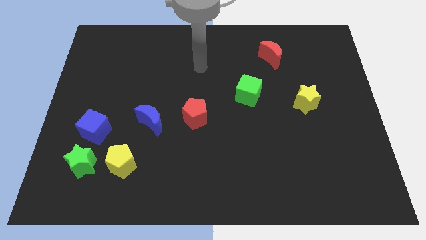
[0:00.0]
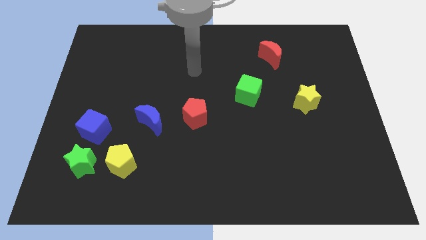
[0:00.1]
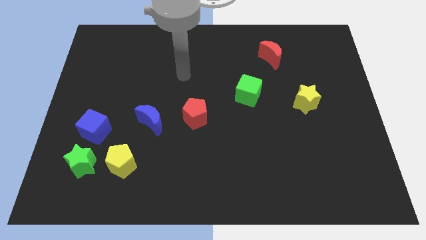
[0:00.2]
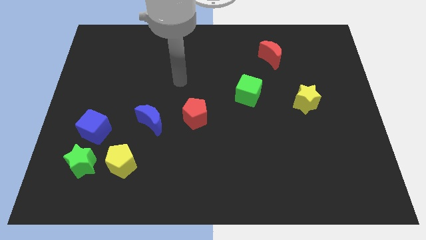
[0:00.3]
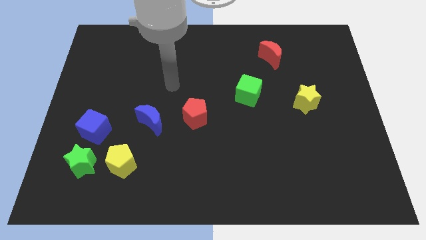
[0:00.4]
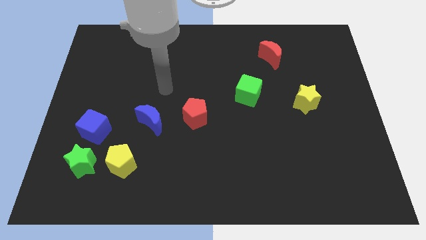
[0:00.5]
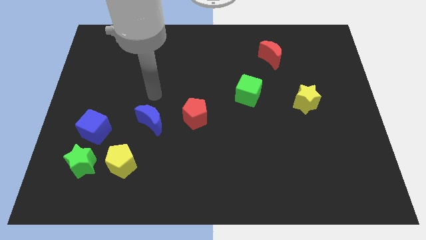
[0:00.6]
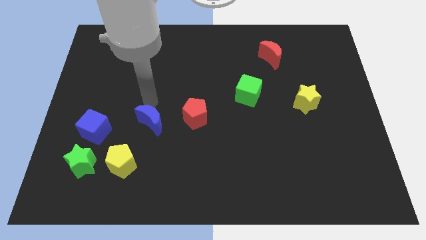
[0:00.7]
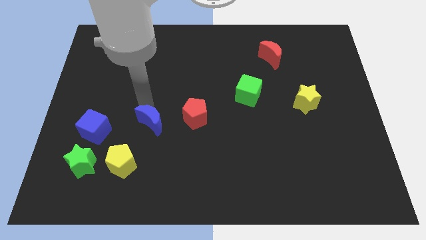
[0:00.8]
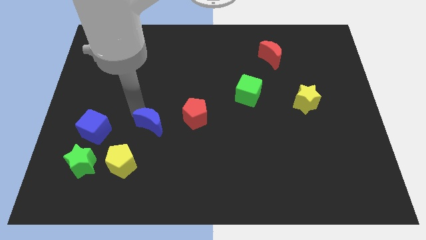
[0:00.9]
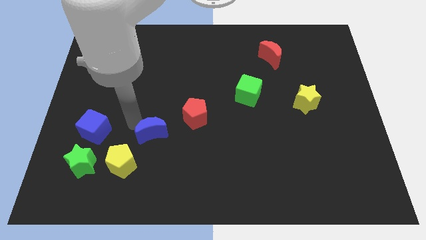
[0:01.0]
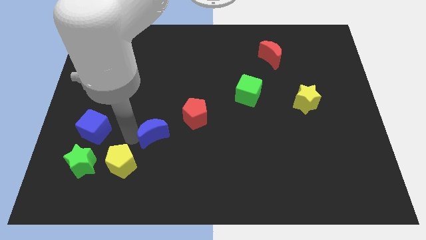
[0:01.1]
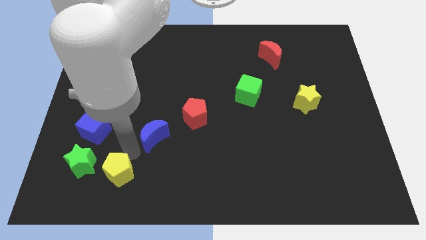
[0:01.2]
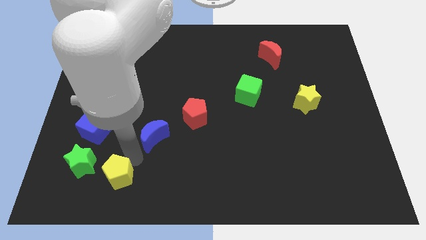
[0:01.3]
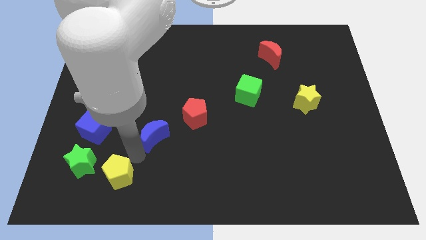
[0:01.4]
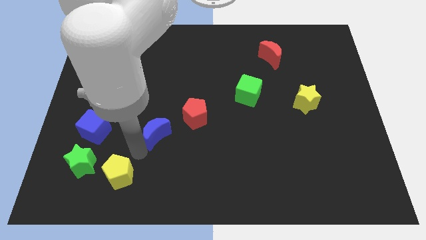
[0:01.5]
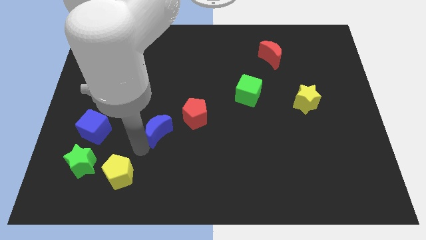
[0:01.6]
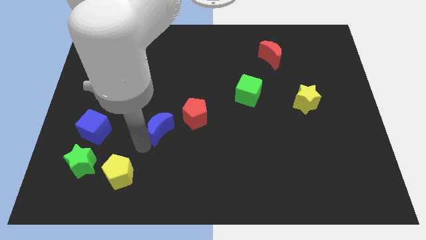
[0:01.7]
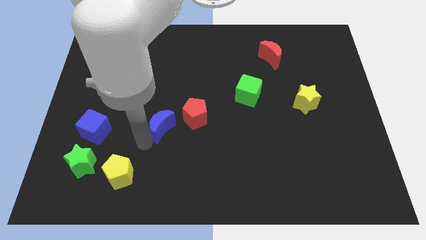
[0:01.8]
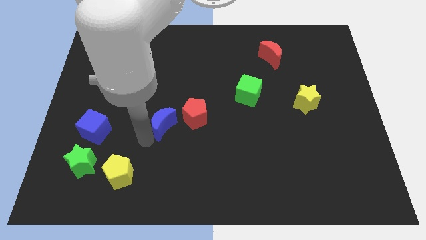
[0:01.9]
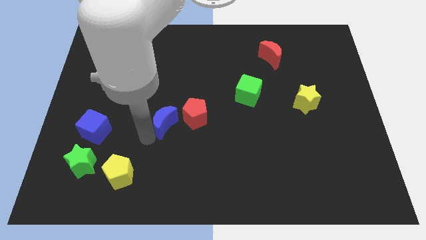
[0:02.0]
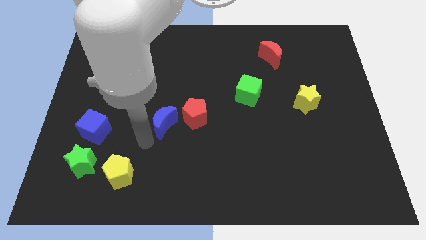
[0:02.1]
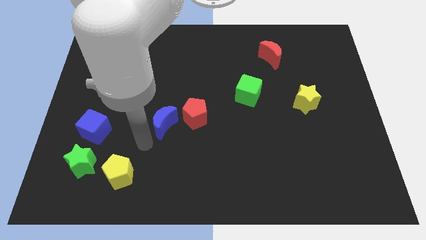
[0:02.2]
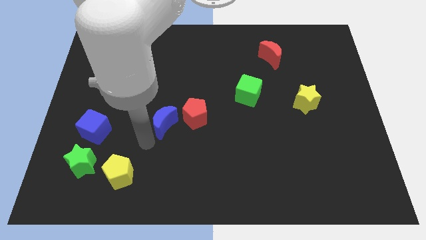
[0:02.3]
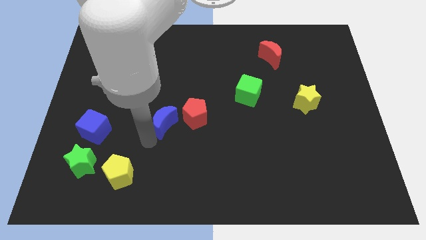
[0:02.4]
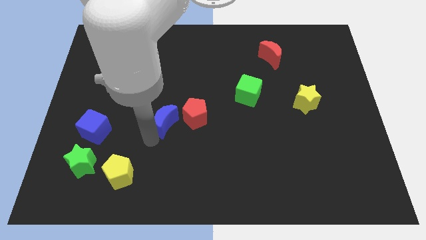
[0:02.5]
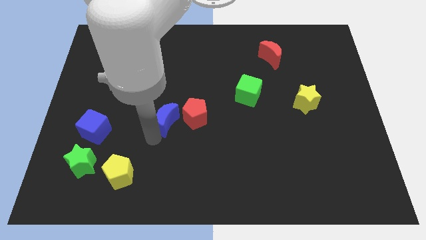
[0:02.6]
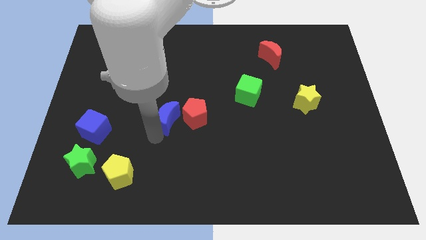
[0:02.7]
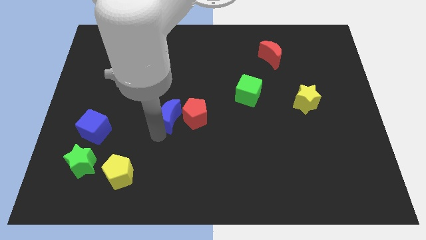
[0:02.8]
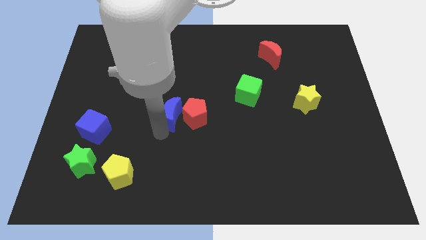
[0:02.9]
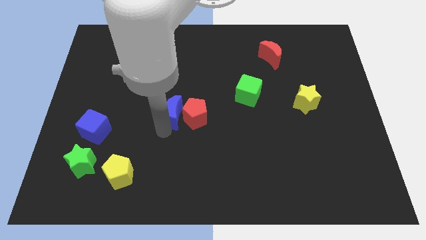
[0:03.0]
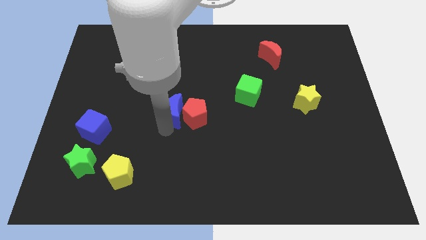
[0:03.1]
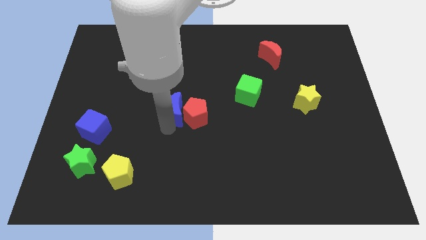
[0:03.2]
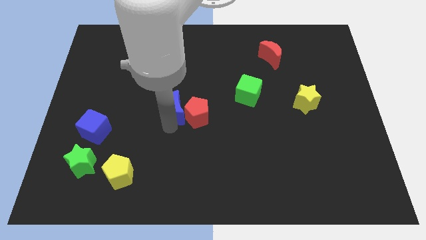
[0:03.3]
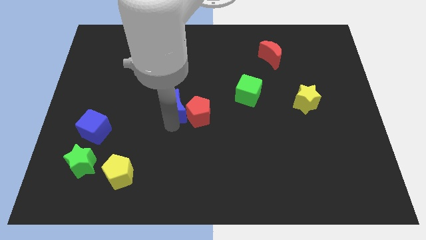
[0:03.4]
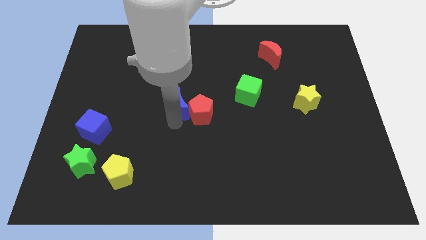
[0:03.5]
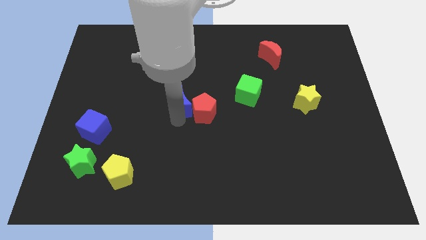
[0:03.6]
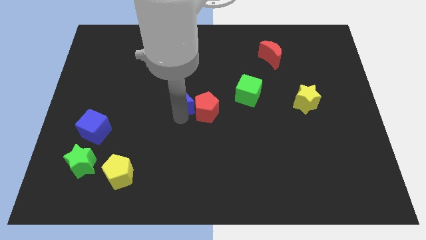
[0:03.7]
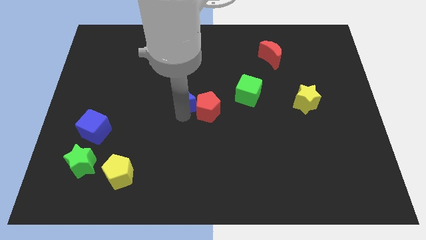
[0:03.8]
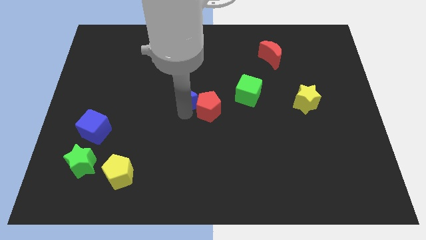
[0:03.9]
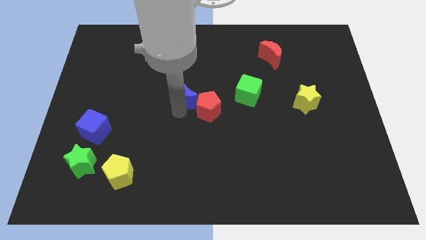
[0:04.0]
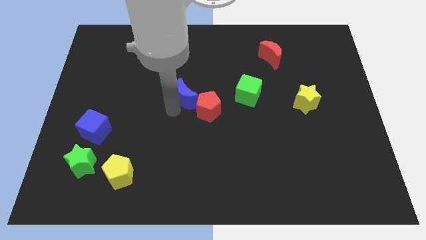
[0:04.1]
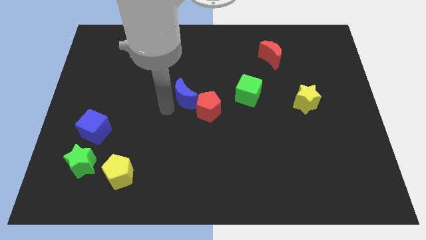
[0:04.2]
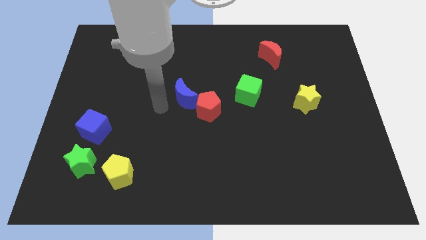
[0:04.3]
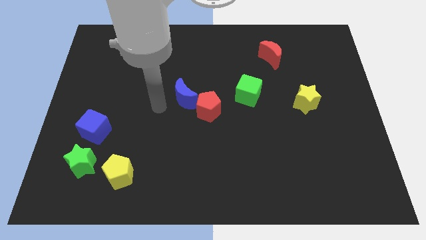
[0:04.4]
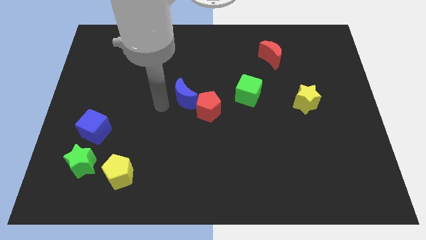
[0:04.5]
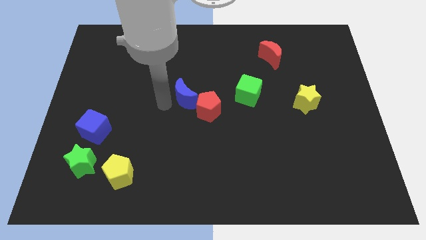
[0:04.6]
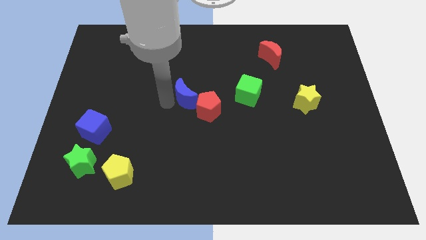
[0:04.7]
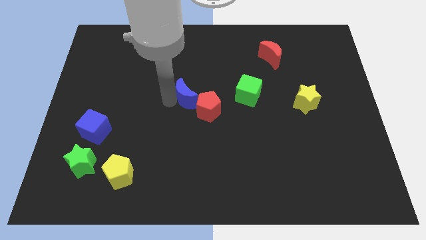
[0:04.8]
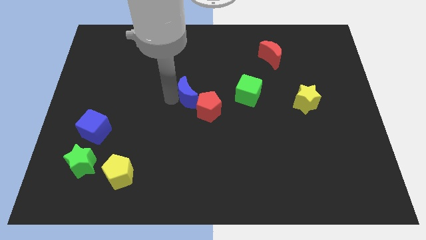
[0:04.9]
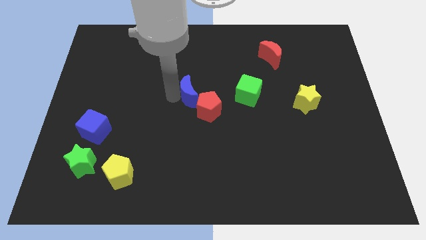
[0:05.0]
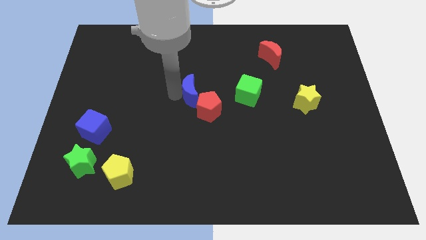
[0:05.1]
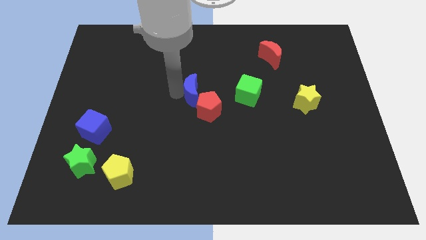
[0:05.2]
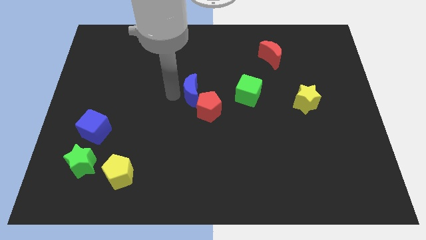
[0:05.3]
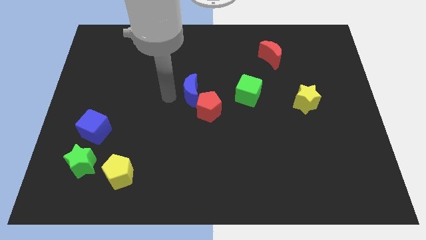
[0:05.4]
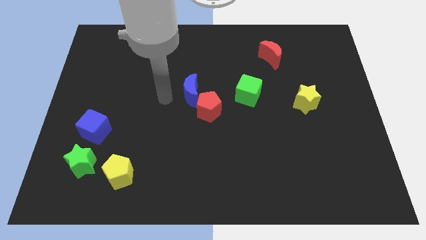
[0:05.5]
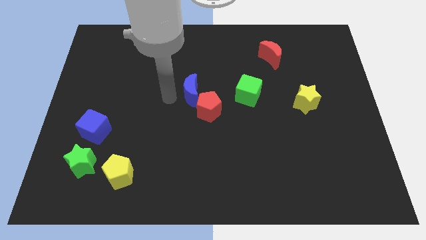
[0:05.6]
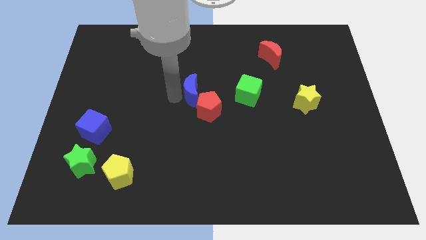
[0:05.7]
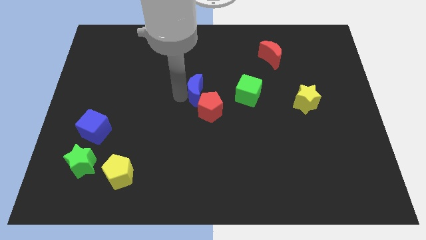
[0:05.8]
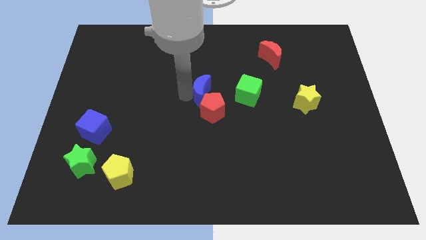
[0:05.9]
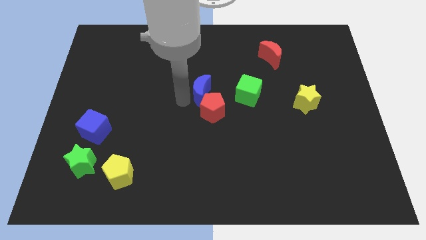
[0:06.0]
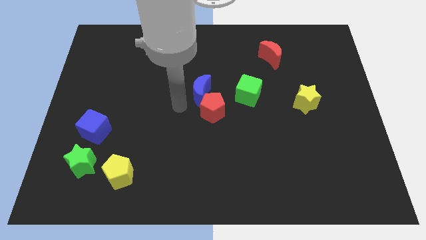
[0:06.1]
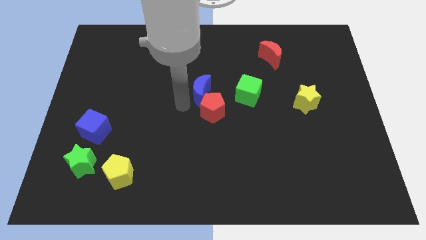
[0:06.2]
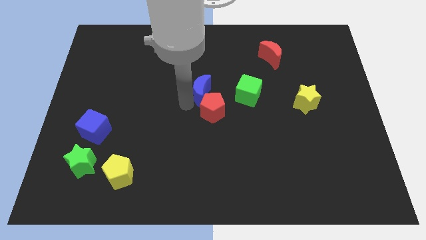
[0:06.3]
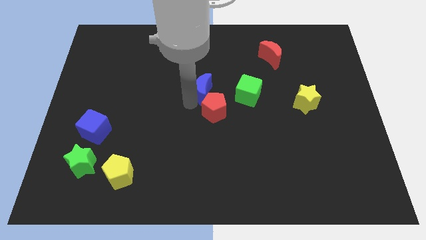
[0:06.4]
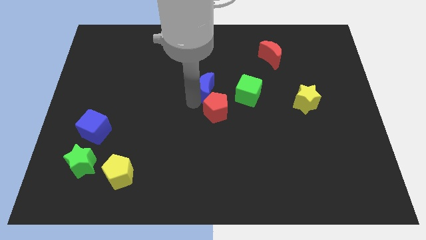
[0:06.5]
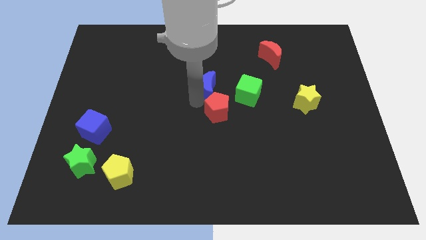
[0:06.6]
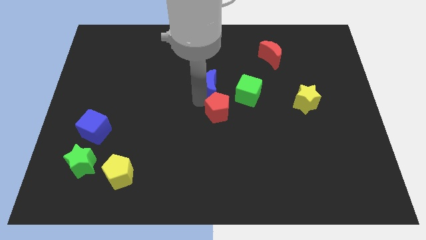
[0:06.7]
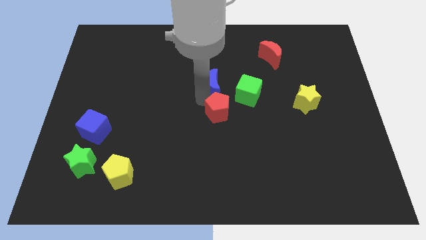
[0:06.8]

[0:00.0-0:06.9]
push the blue moon to the top left of the green cube
